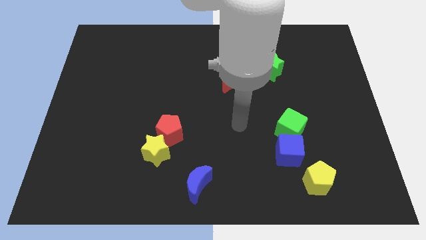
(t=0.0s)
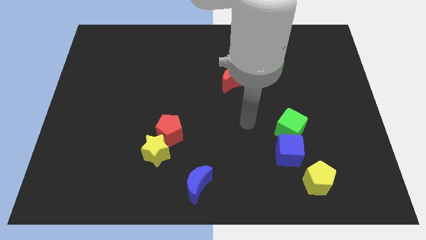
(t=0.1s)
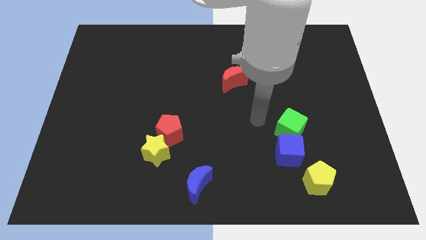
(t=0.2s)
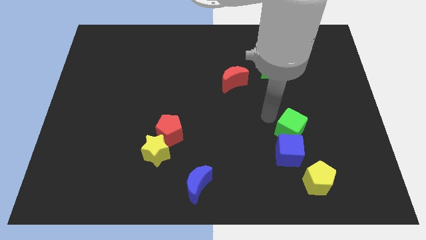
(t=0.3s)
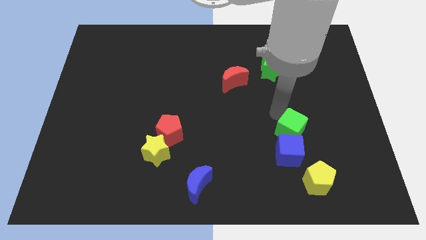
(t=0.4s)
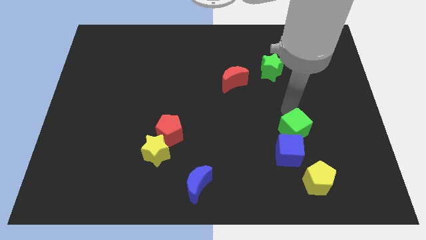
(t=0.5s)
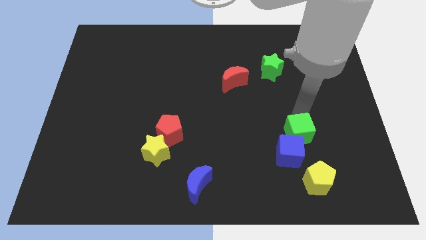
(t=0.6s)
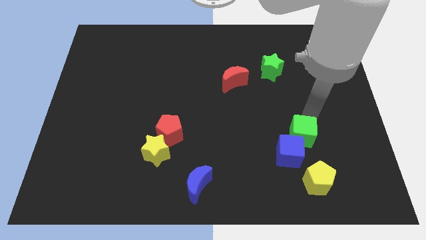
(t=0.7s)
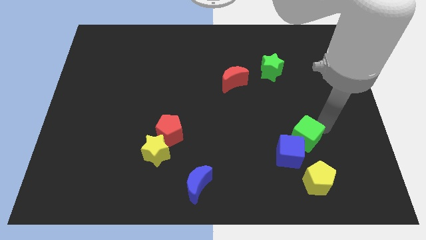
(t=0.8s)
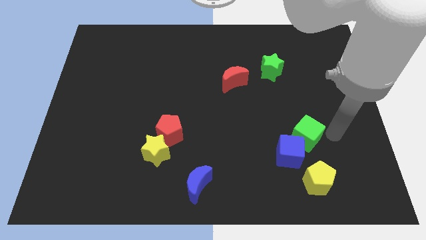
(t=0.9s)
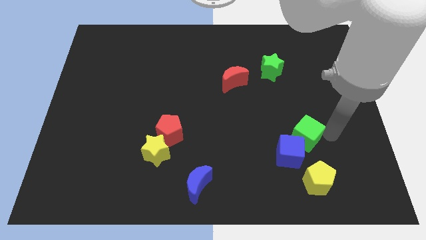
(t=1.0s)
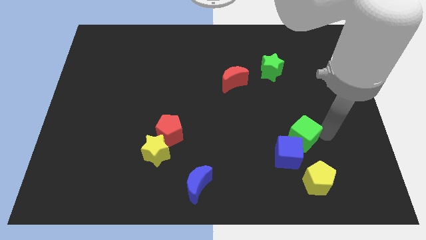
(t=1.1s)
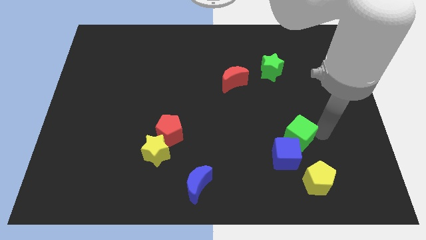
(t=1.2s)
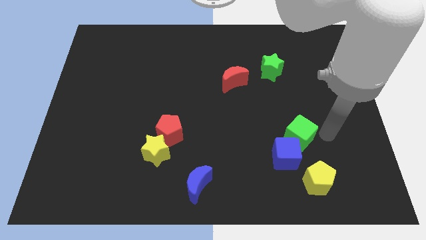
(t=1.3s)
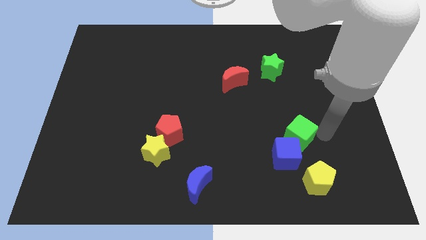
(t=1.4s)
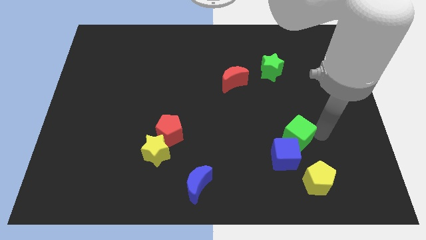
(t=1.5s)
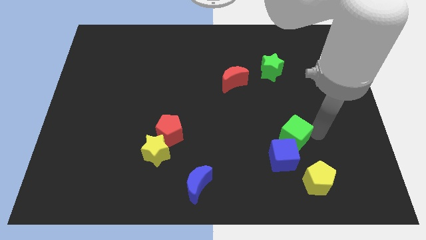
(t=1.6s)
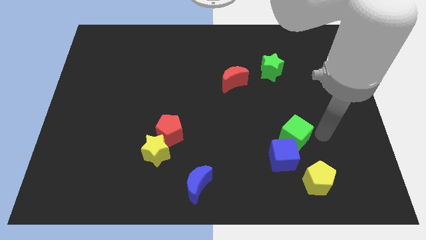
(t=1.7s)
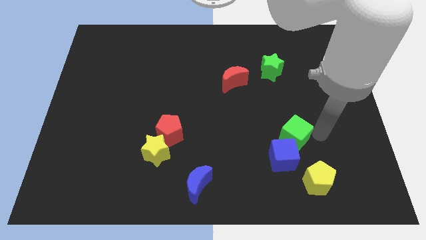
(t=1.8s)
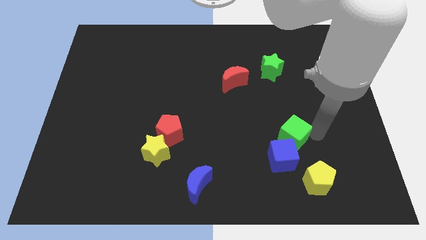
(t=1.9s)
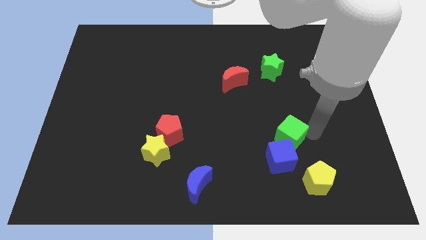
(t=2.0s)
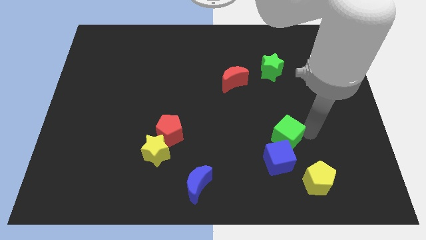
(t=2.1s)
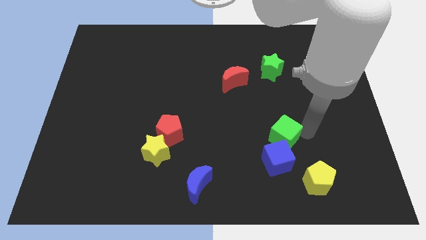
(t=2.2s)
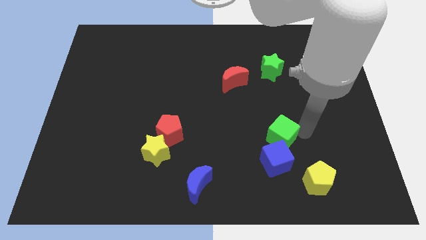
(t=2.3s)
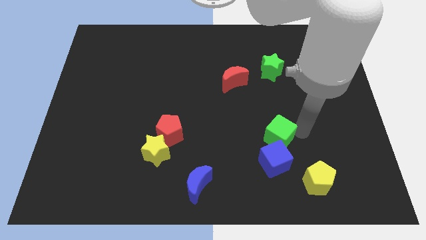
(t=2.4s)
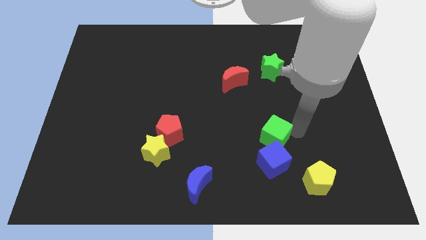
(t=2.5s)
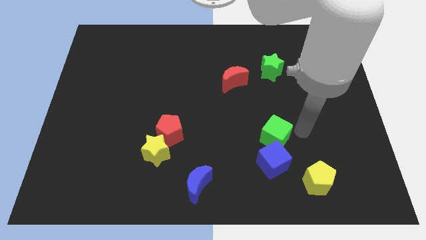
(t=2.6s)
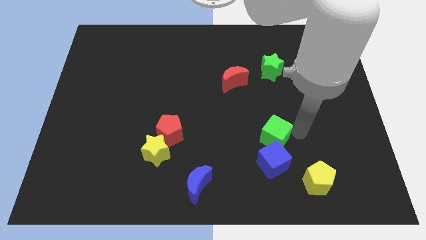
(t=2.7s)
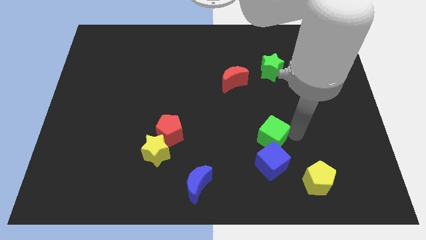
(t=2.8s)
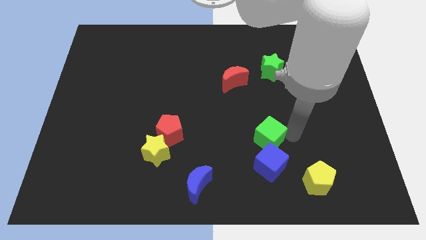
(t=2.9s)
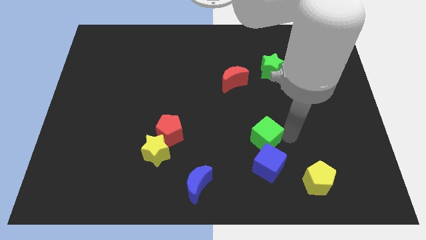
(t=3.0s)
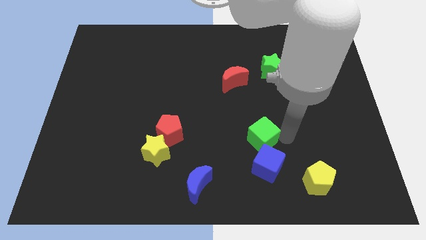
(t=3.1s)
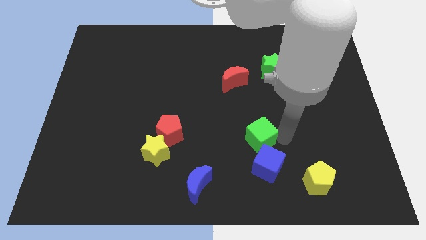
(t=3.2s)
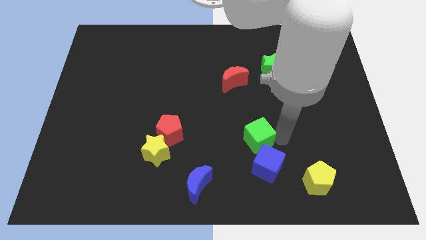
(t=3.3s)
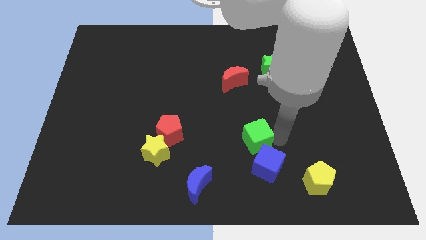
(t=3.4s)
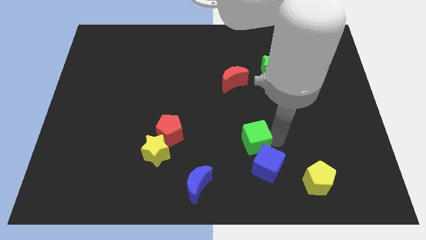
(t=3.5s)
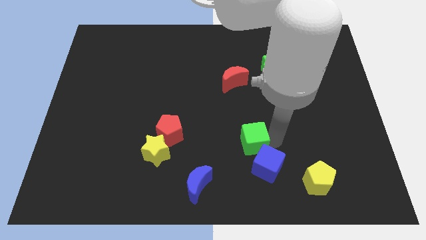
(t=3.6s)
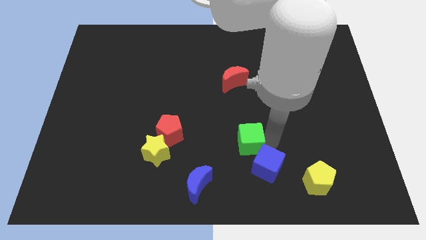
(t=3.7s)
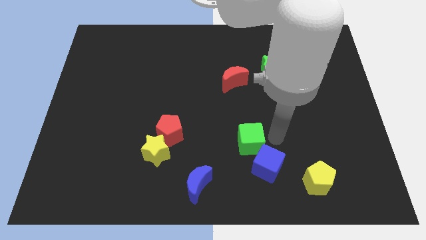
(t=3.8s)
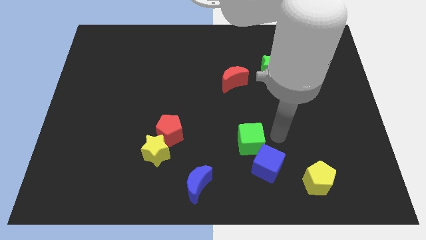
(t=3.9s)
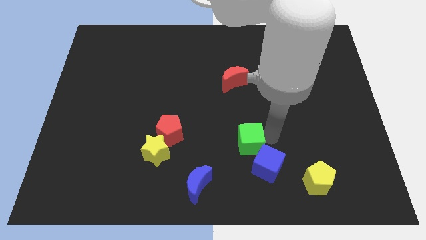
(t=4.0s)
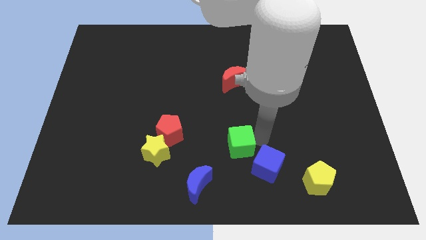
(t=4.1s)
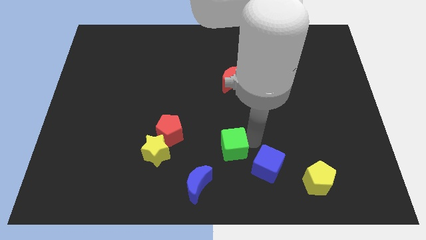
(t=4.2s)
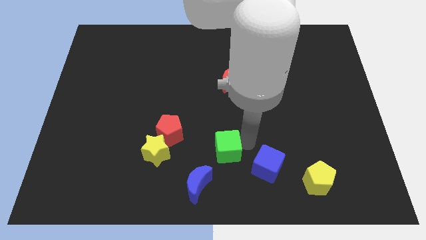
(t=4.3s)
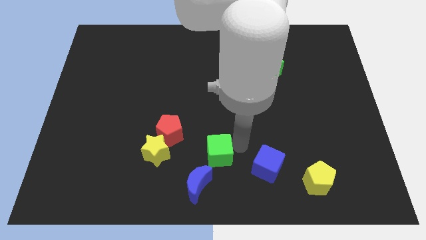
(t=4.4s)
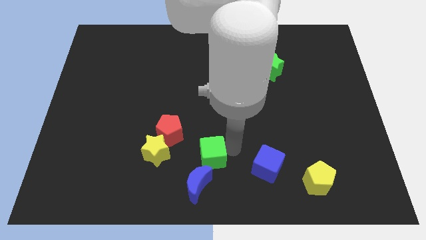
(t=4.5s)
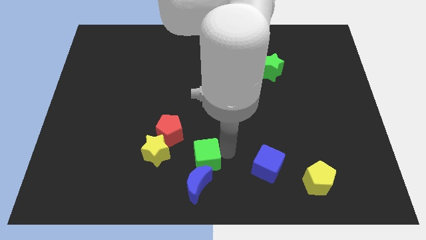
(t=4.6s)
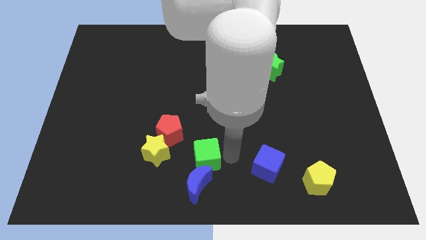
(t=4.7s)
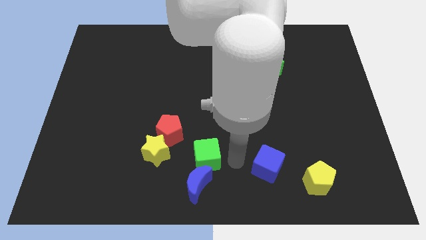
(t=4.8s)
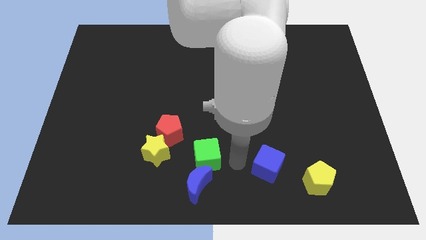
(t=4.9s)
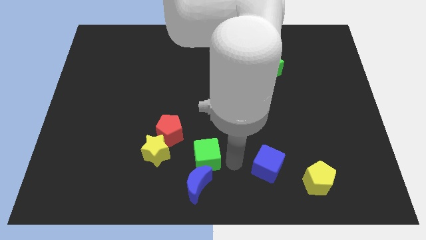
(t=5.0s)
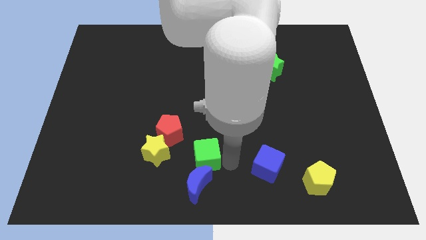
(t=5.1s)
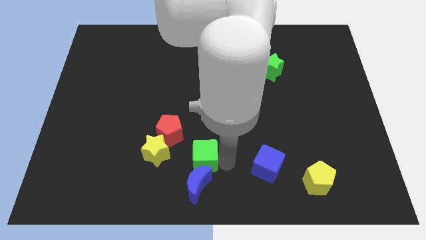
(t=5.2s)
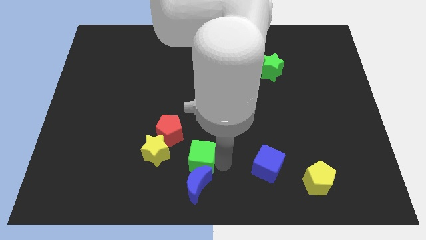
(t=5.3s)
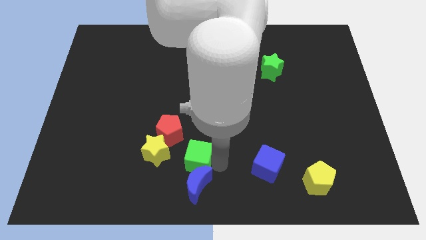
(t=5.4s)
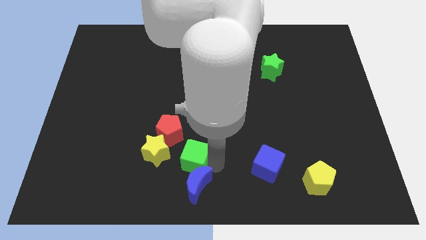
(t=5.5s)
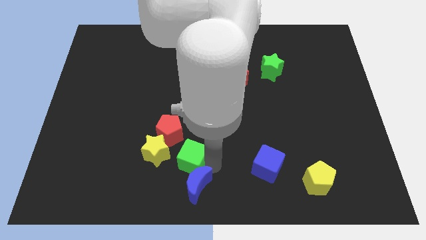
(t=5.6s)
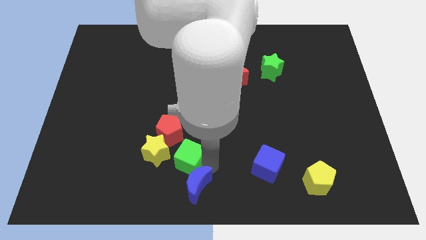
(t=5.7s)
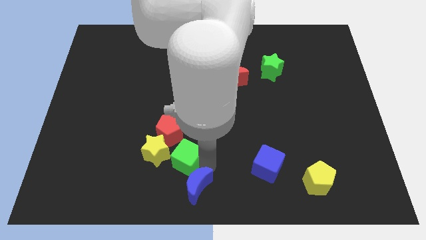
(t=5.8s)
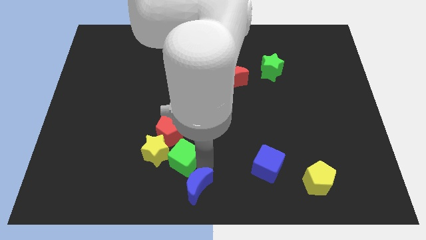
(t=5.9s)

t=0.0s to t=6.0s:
push the green cube towards the yellow star

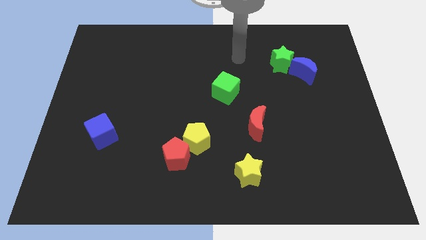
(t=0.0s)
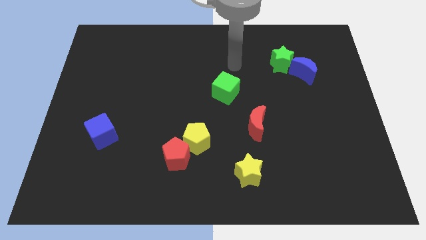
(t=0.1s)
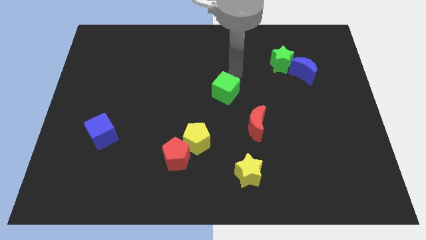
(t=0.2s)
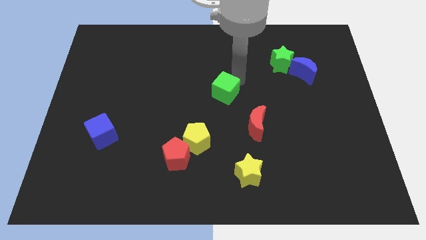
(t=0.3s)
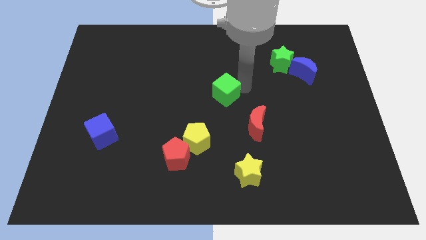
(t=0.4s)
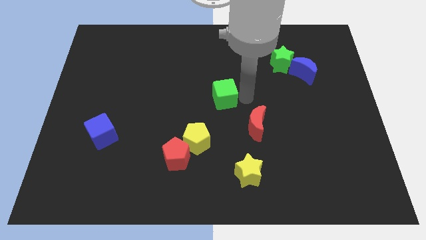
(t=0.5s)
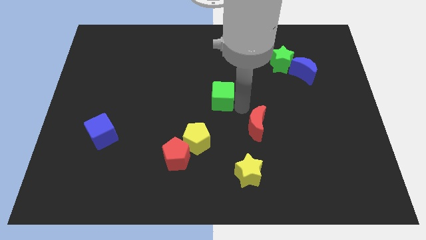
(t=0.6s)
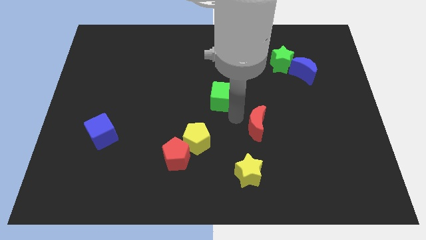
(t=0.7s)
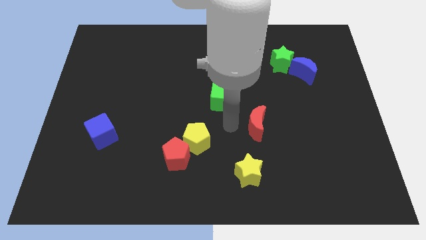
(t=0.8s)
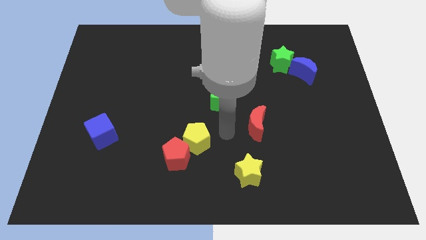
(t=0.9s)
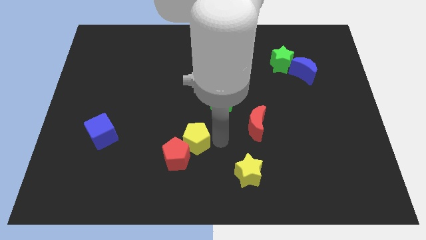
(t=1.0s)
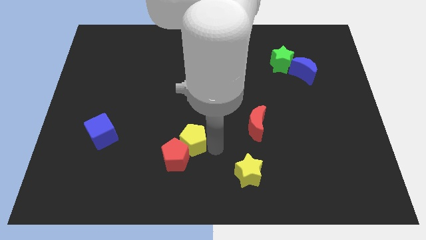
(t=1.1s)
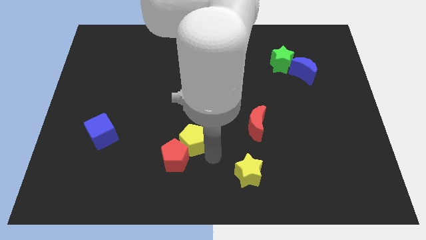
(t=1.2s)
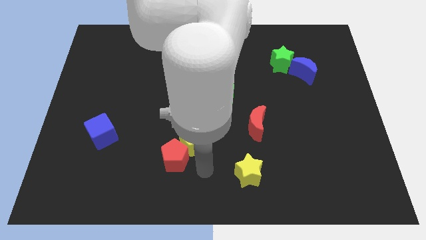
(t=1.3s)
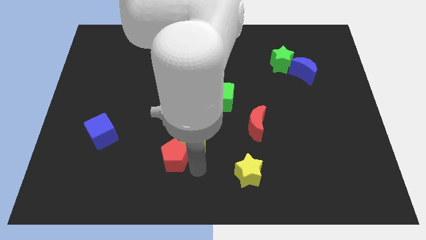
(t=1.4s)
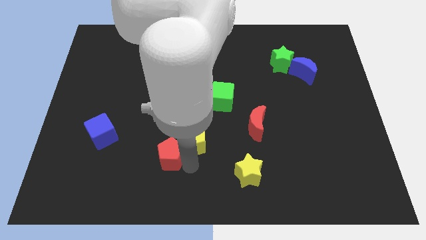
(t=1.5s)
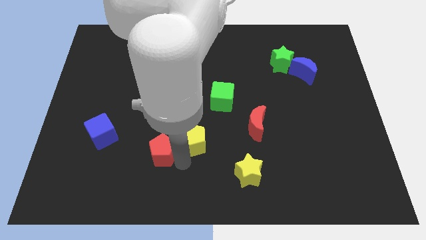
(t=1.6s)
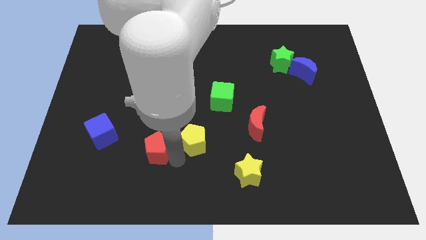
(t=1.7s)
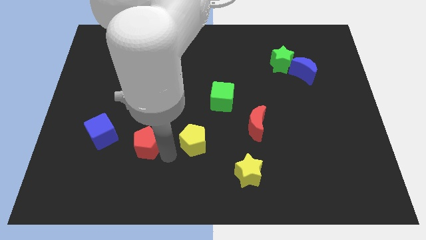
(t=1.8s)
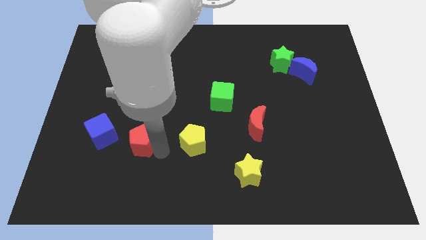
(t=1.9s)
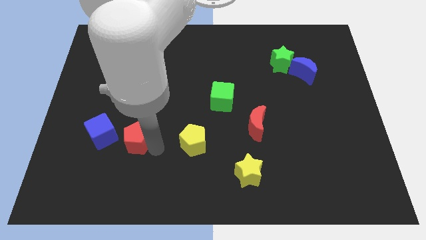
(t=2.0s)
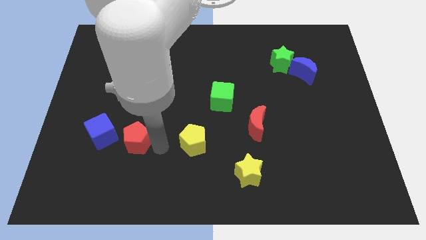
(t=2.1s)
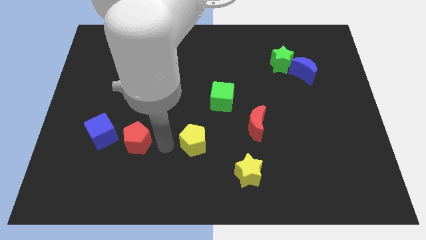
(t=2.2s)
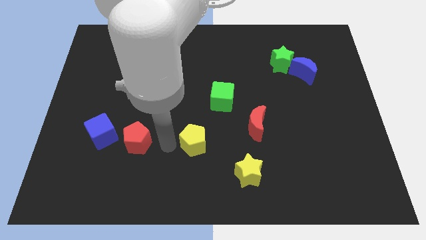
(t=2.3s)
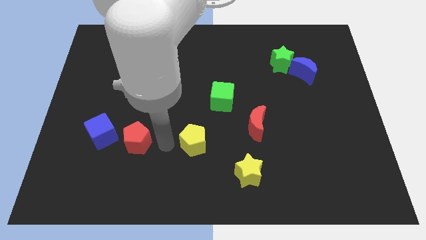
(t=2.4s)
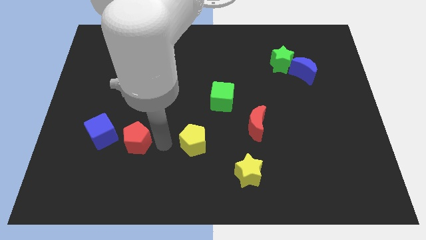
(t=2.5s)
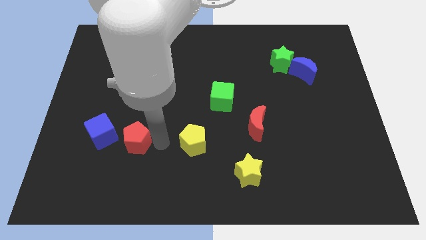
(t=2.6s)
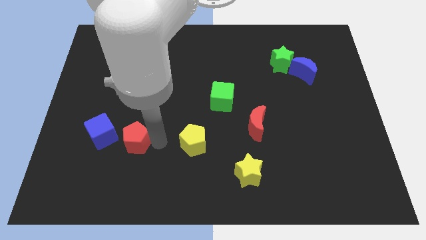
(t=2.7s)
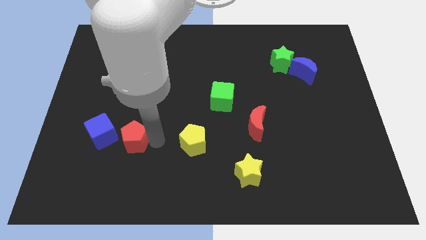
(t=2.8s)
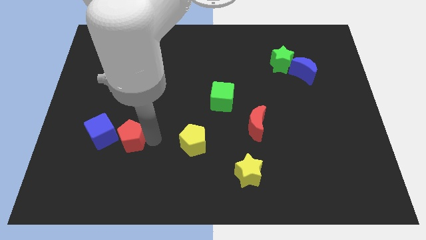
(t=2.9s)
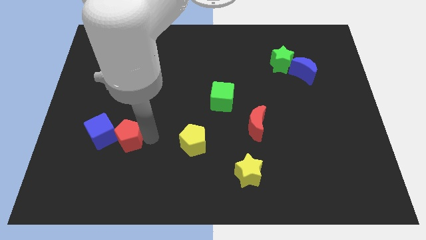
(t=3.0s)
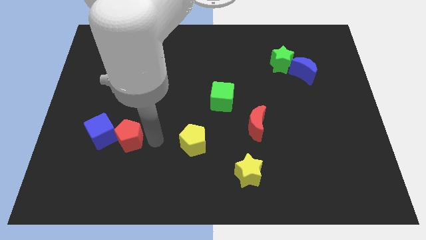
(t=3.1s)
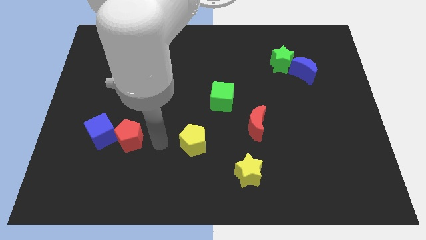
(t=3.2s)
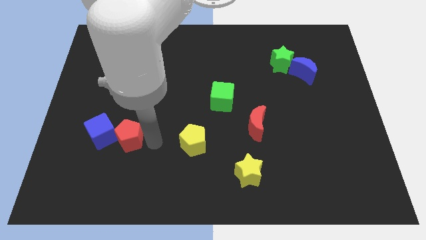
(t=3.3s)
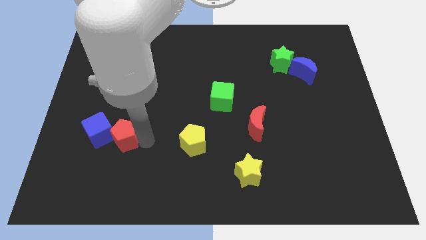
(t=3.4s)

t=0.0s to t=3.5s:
push the red pentagon to the blue cube
